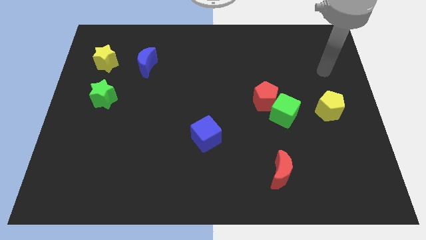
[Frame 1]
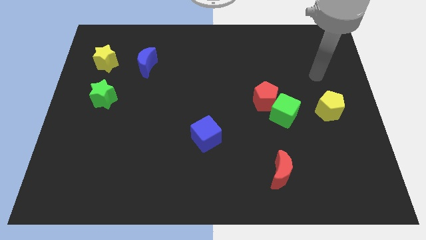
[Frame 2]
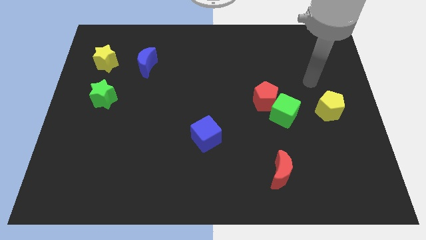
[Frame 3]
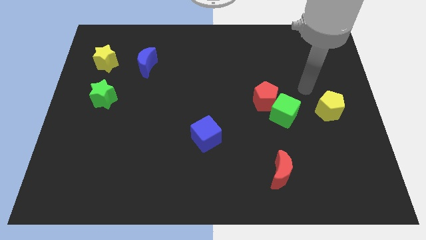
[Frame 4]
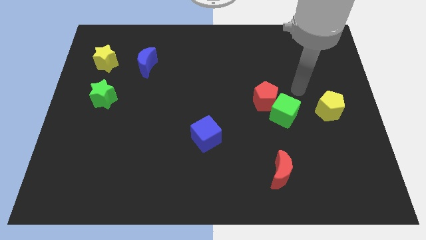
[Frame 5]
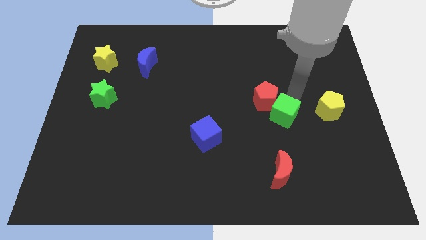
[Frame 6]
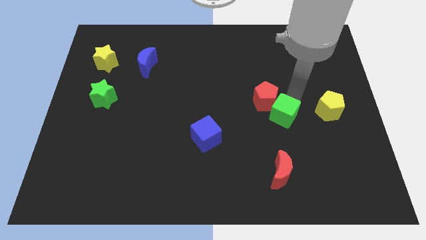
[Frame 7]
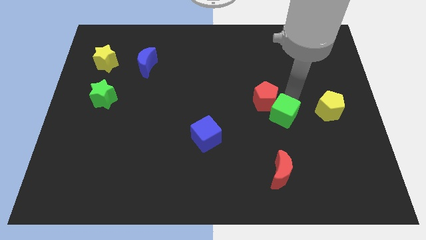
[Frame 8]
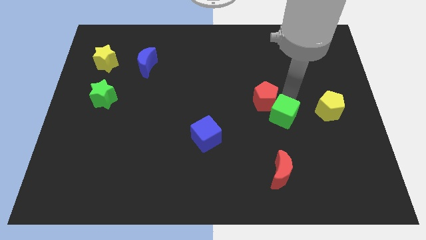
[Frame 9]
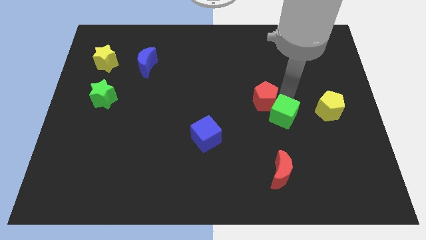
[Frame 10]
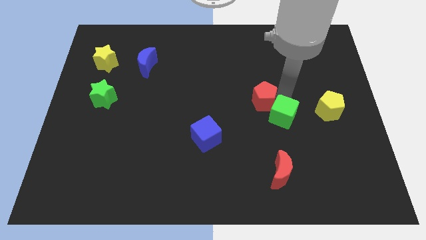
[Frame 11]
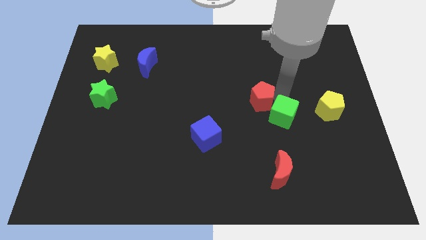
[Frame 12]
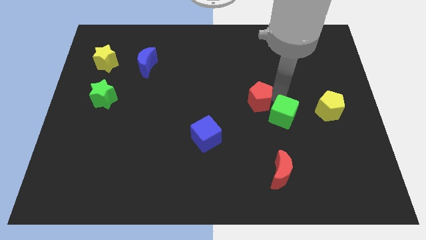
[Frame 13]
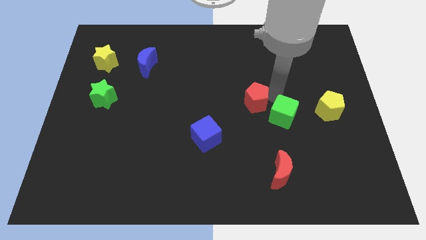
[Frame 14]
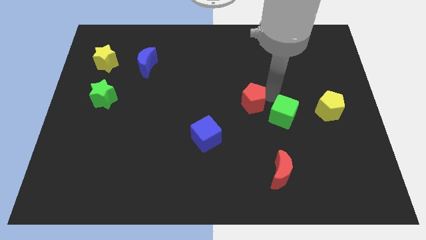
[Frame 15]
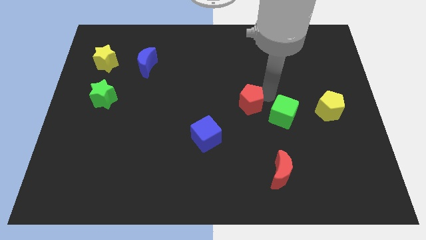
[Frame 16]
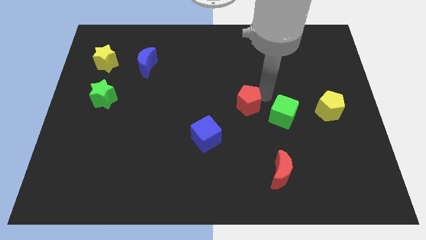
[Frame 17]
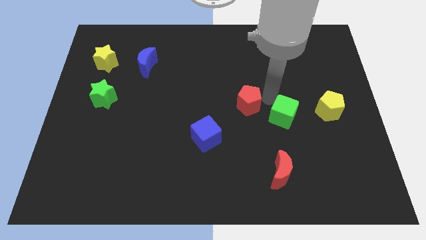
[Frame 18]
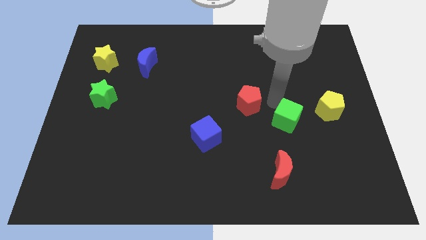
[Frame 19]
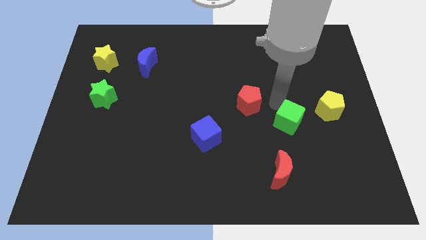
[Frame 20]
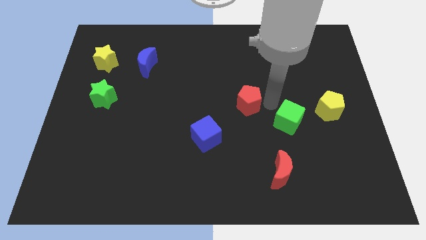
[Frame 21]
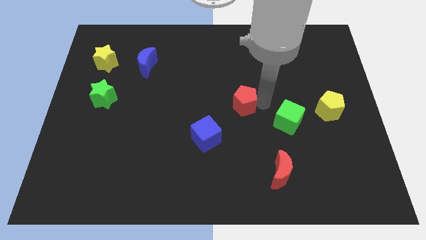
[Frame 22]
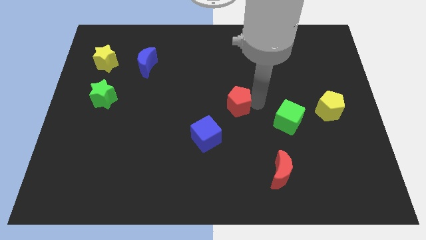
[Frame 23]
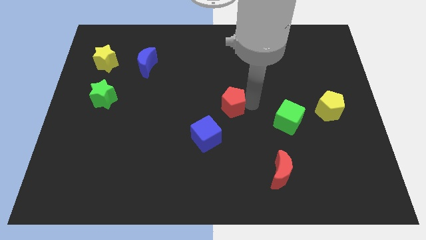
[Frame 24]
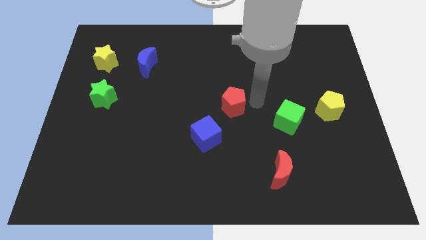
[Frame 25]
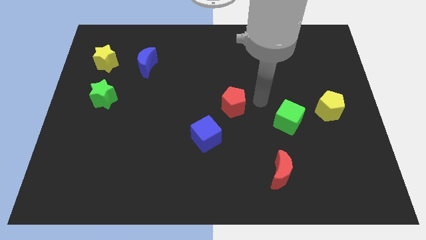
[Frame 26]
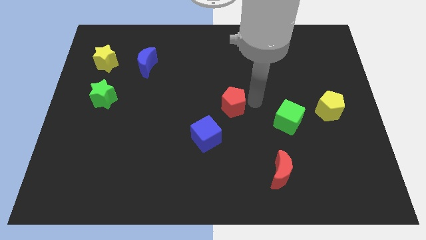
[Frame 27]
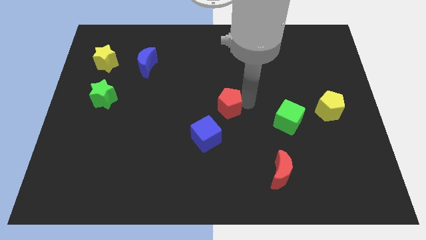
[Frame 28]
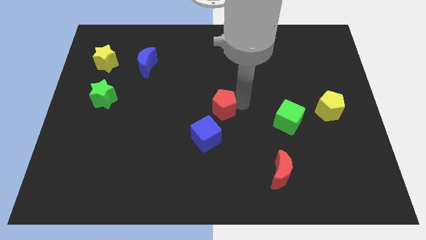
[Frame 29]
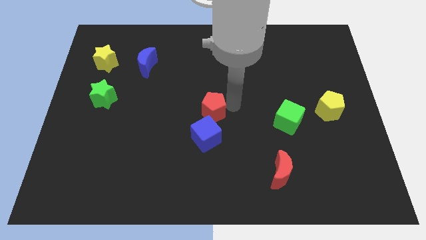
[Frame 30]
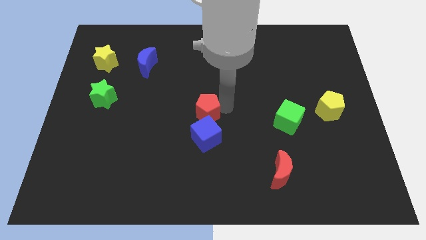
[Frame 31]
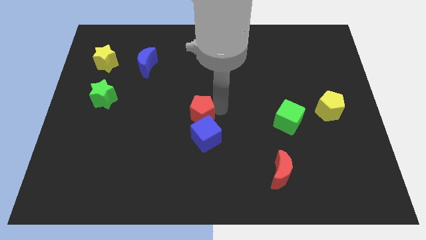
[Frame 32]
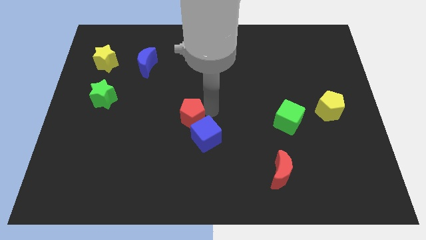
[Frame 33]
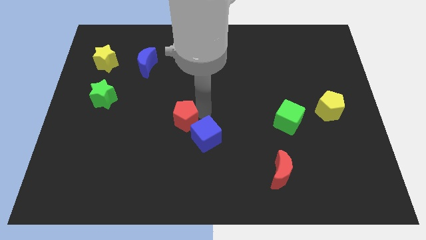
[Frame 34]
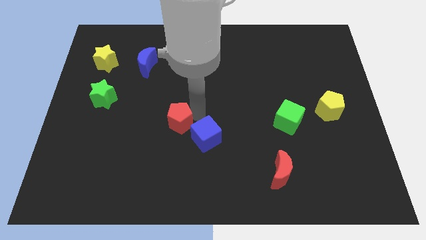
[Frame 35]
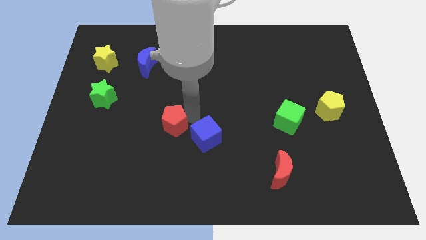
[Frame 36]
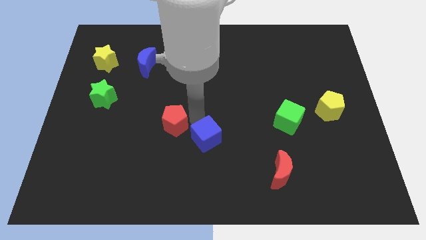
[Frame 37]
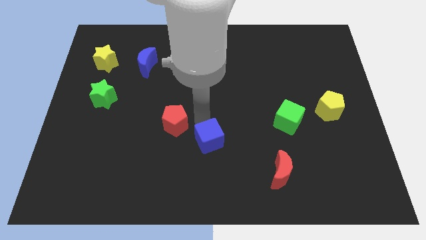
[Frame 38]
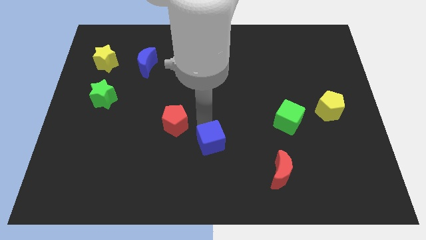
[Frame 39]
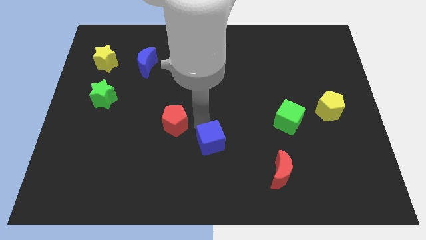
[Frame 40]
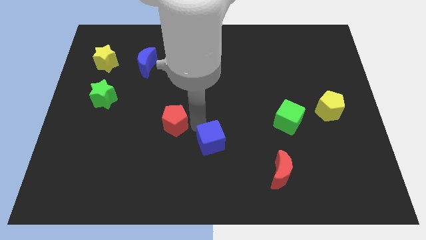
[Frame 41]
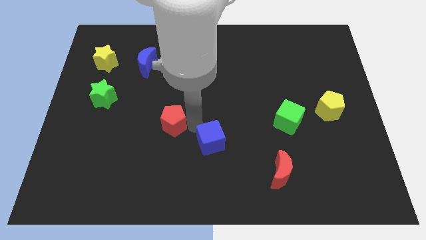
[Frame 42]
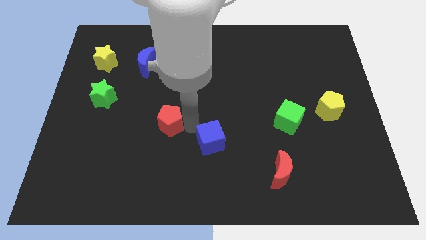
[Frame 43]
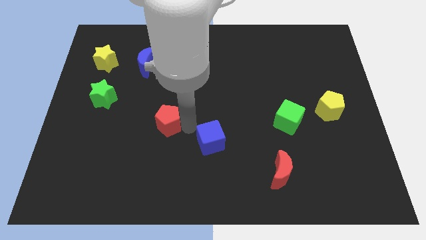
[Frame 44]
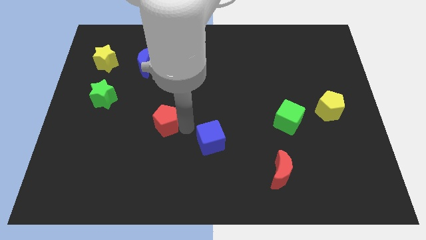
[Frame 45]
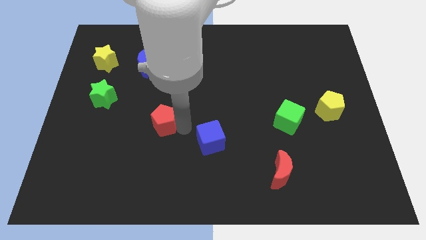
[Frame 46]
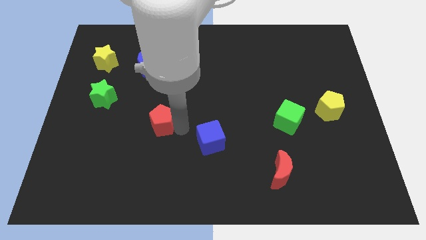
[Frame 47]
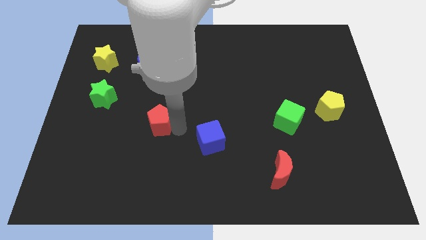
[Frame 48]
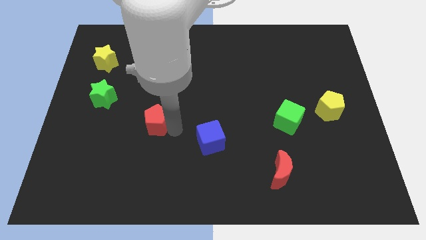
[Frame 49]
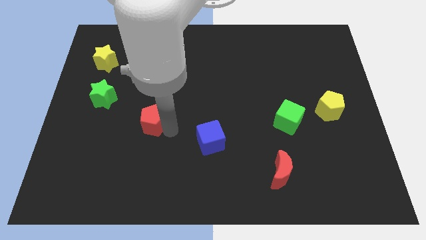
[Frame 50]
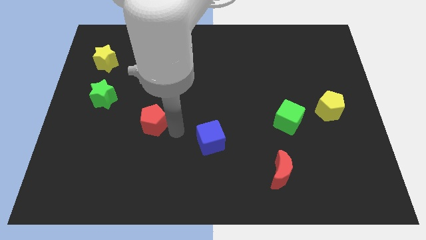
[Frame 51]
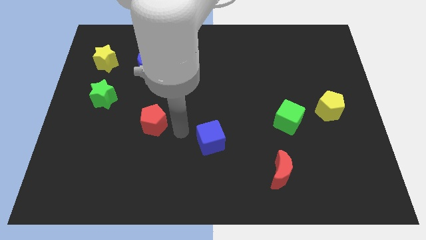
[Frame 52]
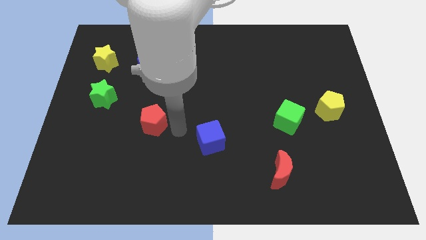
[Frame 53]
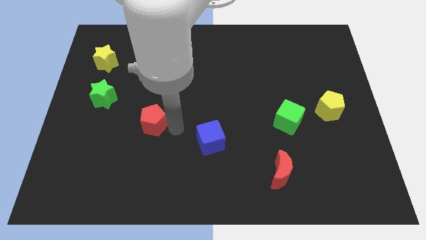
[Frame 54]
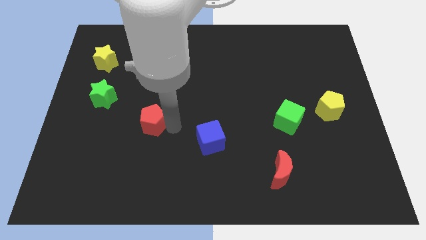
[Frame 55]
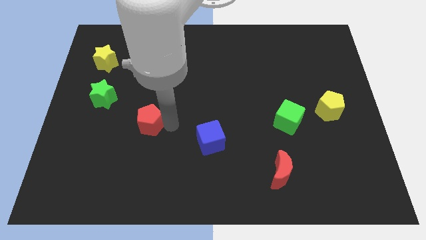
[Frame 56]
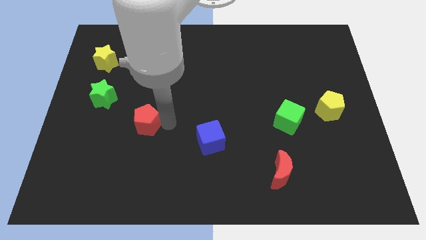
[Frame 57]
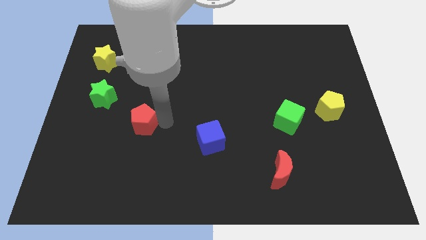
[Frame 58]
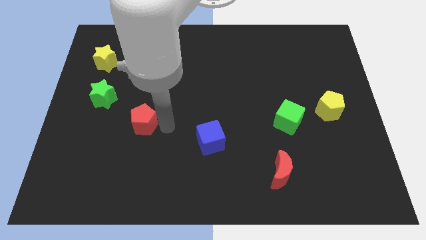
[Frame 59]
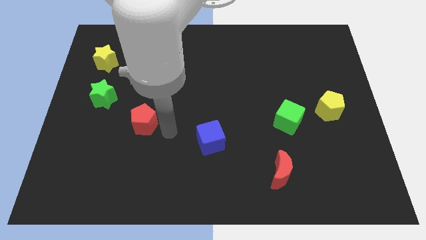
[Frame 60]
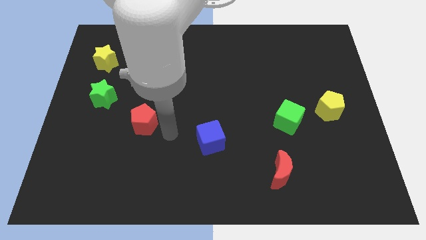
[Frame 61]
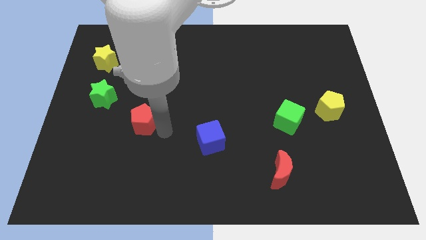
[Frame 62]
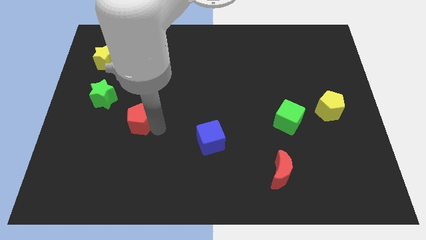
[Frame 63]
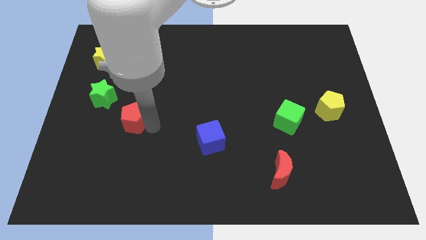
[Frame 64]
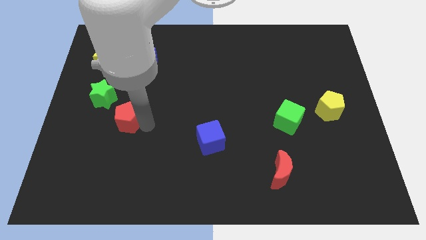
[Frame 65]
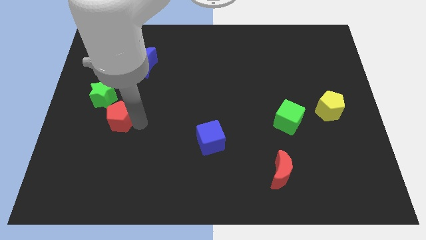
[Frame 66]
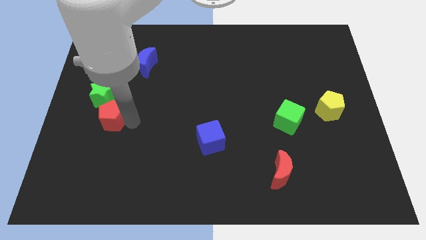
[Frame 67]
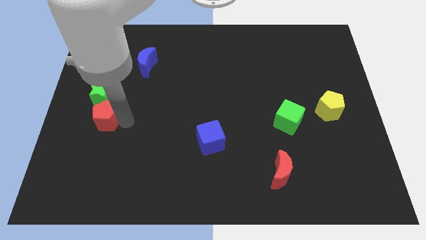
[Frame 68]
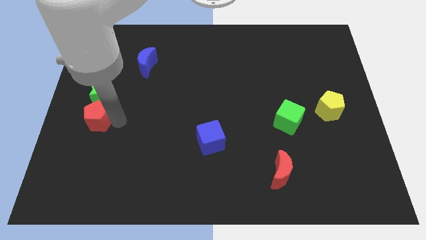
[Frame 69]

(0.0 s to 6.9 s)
move the red pentagon to the left side
